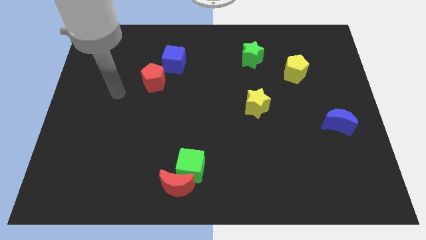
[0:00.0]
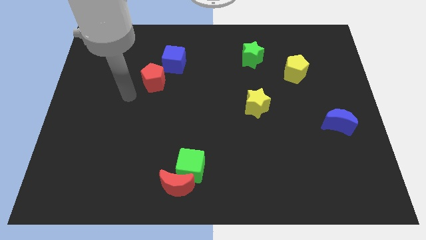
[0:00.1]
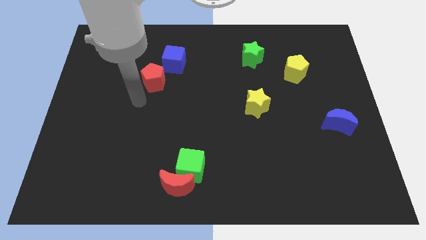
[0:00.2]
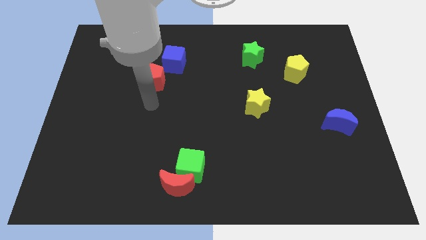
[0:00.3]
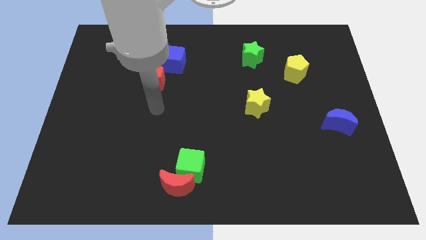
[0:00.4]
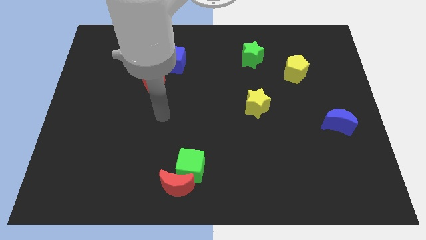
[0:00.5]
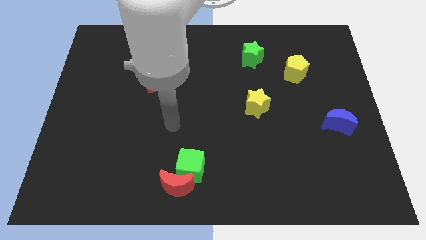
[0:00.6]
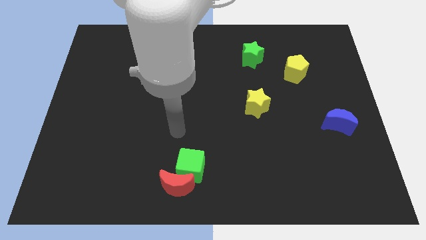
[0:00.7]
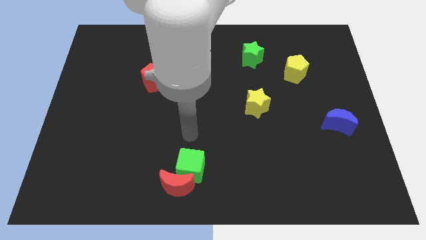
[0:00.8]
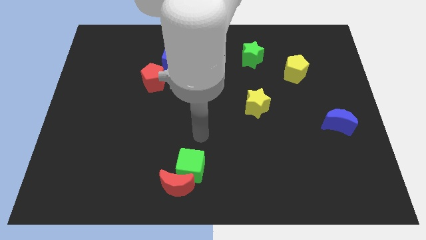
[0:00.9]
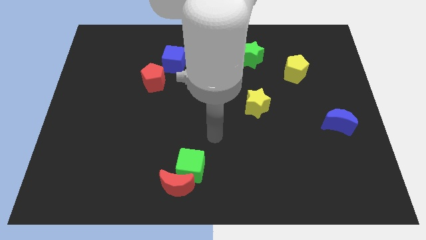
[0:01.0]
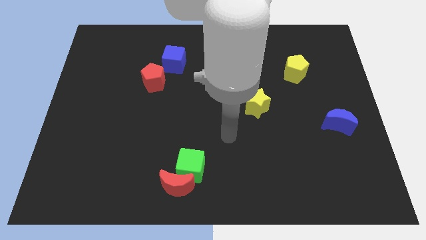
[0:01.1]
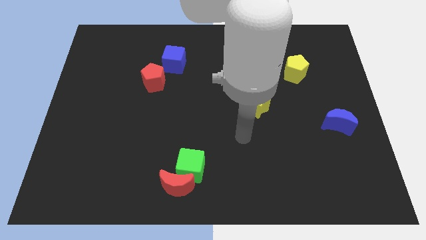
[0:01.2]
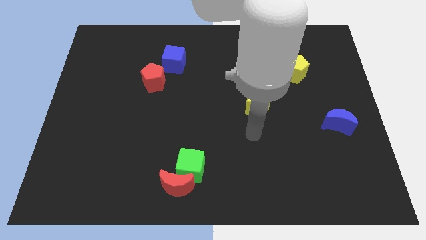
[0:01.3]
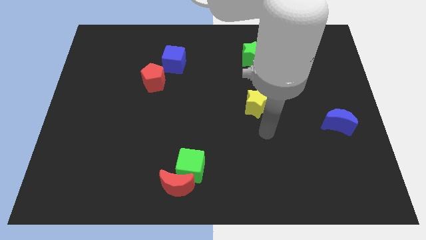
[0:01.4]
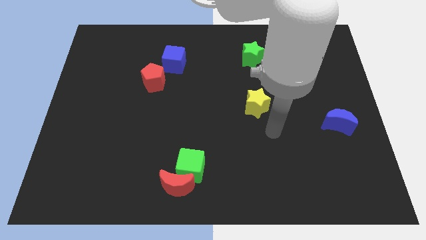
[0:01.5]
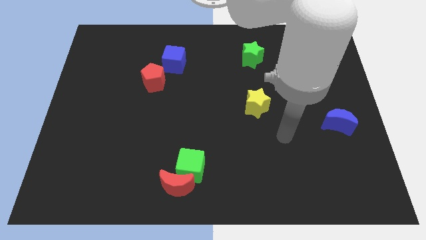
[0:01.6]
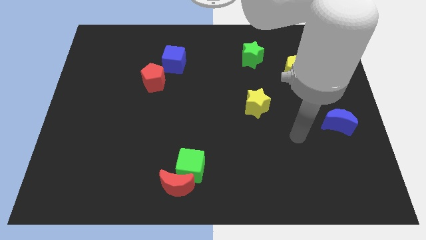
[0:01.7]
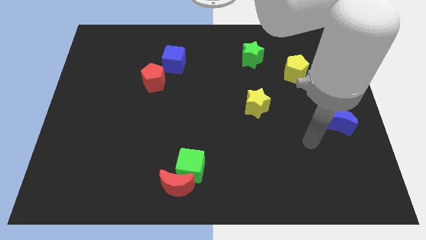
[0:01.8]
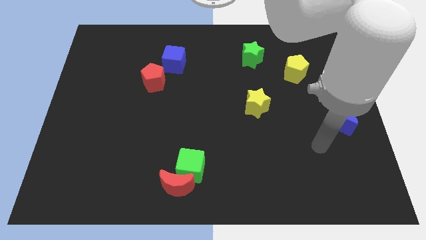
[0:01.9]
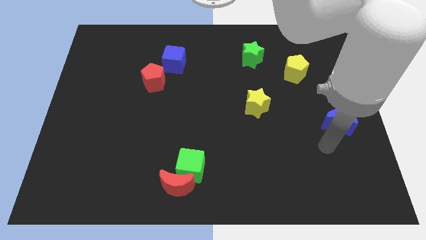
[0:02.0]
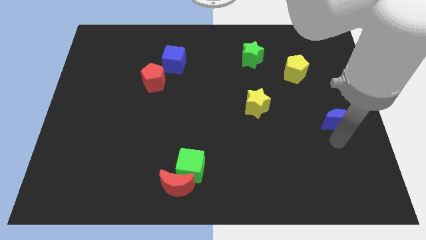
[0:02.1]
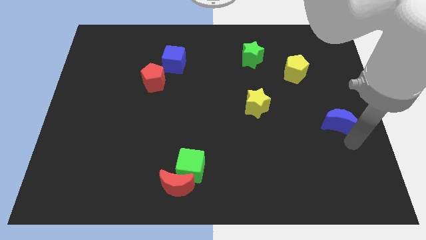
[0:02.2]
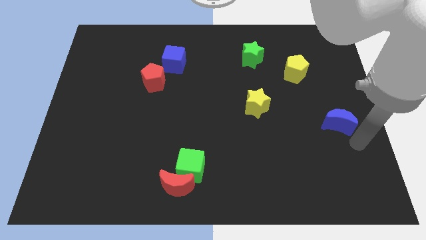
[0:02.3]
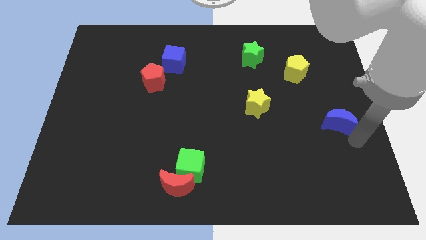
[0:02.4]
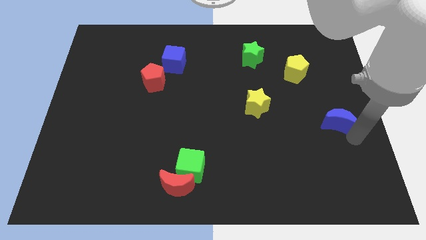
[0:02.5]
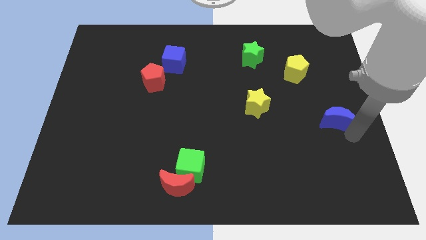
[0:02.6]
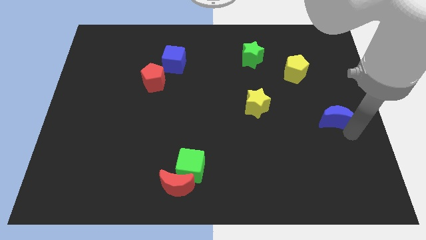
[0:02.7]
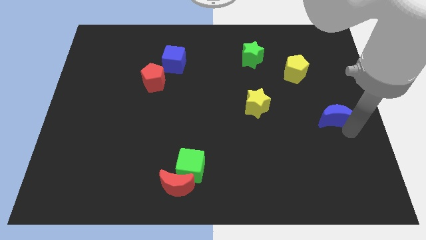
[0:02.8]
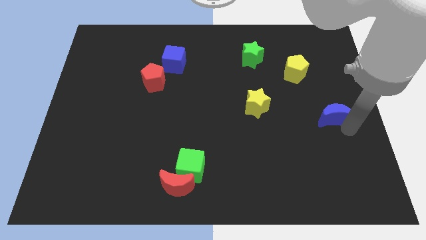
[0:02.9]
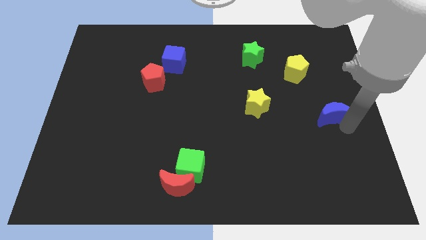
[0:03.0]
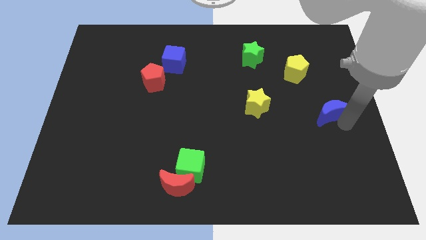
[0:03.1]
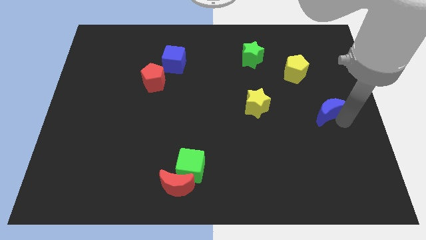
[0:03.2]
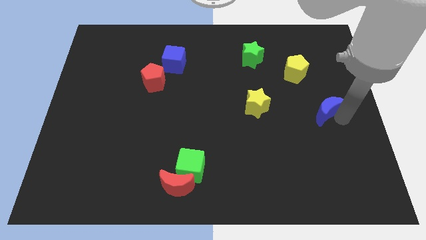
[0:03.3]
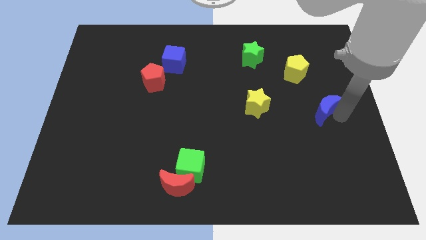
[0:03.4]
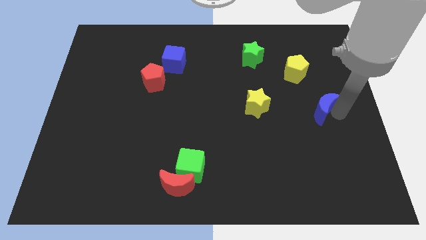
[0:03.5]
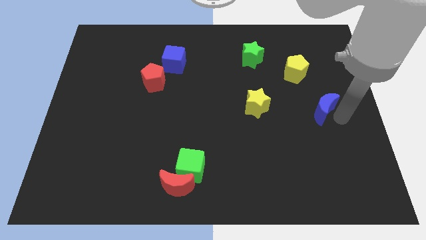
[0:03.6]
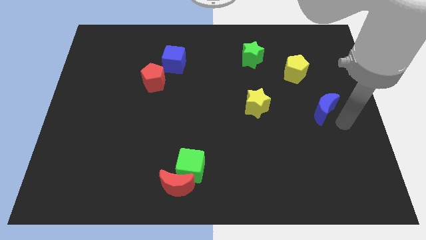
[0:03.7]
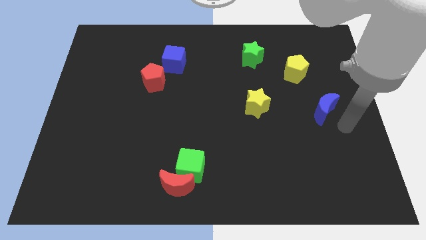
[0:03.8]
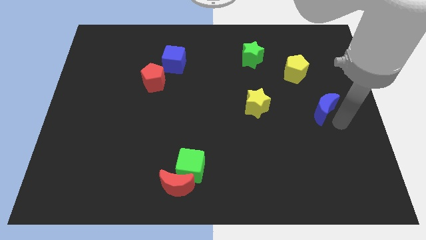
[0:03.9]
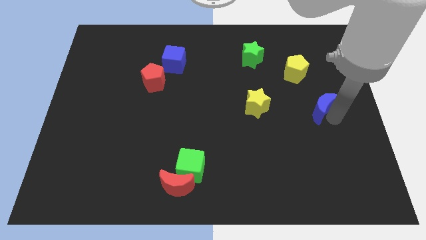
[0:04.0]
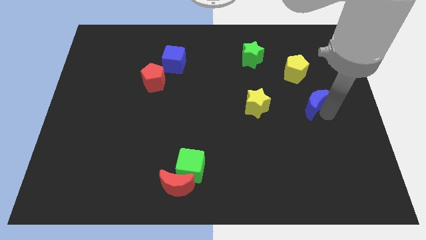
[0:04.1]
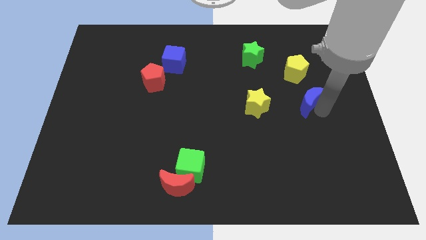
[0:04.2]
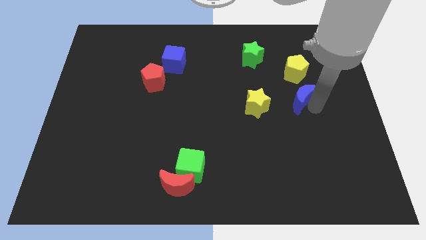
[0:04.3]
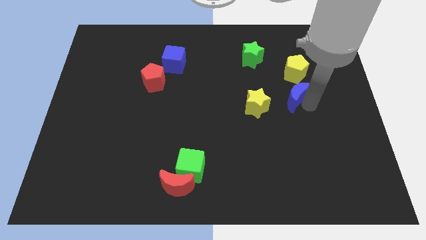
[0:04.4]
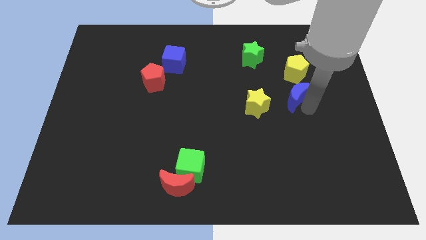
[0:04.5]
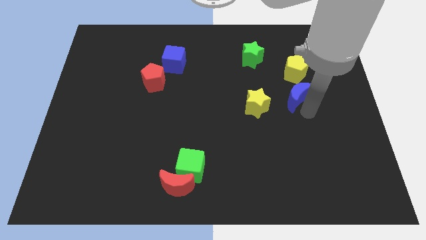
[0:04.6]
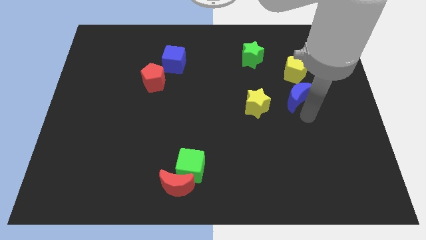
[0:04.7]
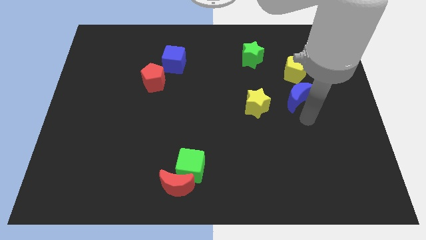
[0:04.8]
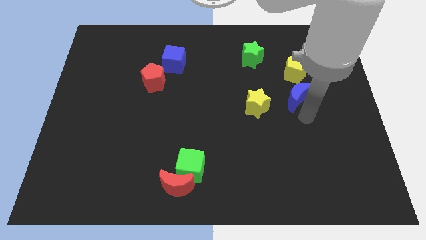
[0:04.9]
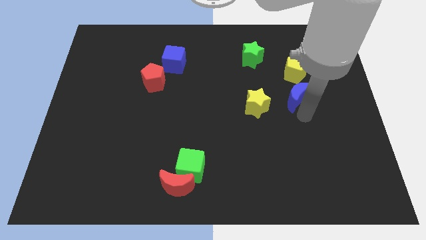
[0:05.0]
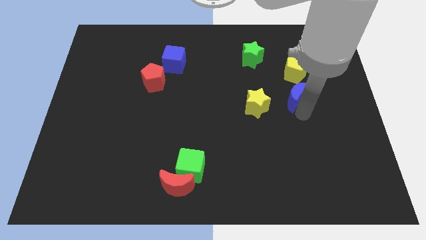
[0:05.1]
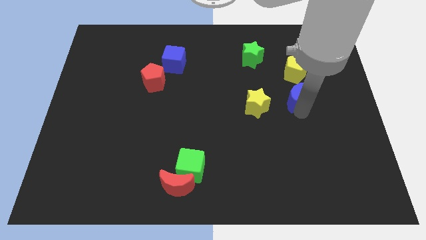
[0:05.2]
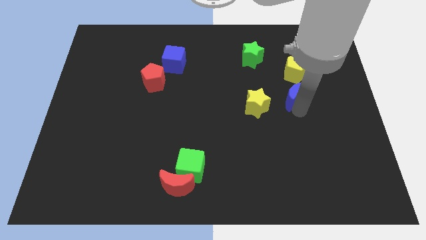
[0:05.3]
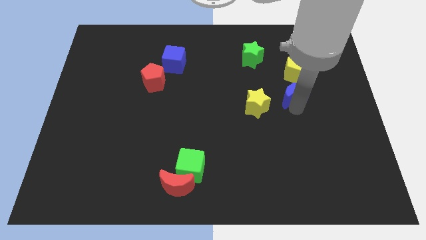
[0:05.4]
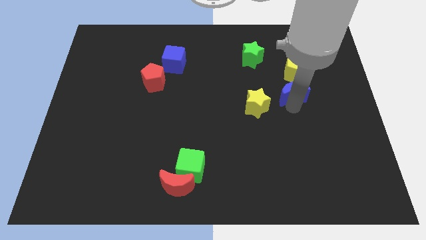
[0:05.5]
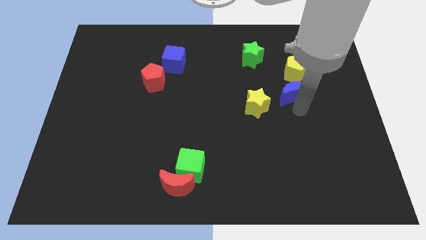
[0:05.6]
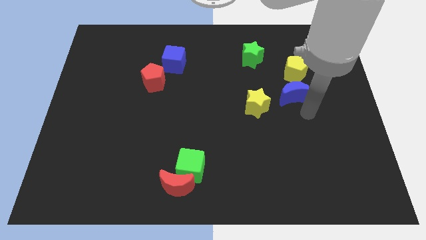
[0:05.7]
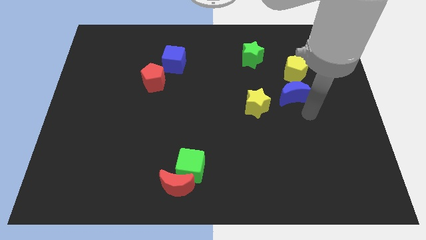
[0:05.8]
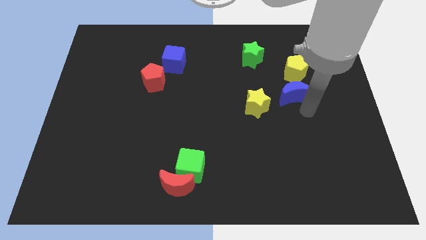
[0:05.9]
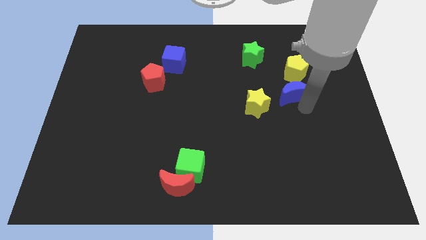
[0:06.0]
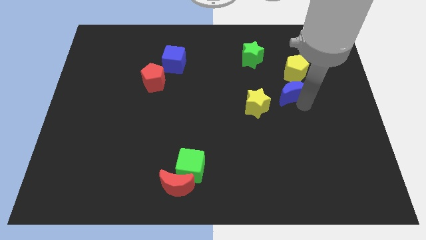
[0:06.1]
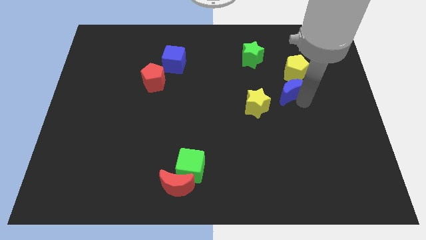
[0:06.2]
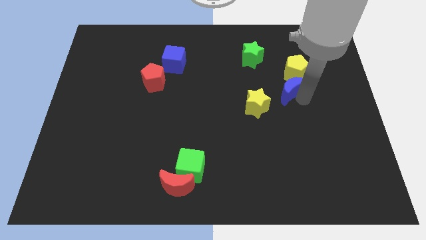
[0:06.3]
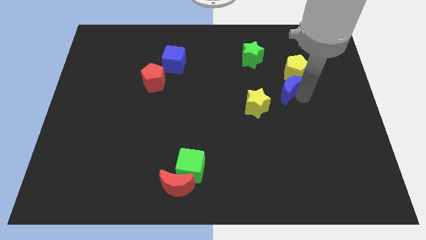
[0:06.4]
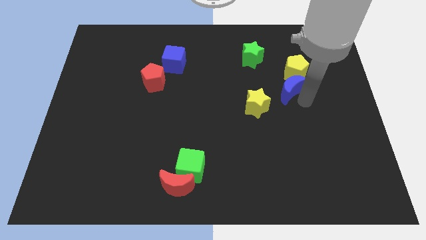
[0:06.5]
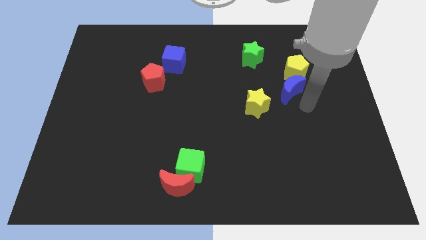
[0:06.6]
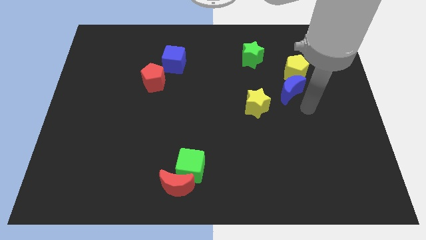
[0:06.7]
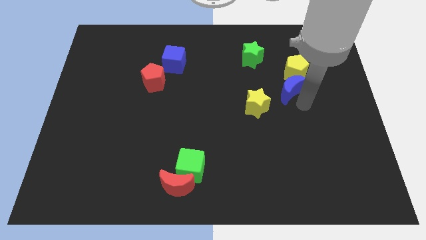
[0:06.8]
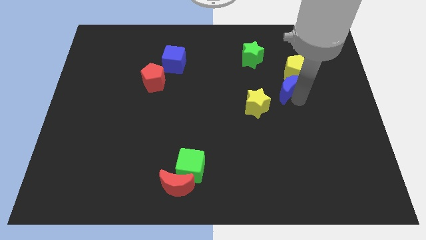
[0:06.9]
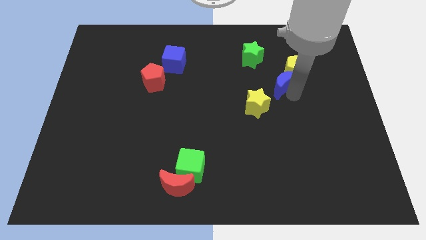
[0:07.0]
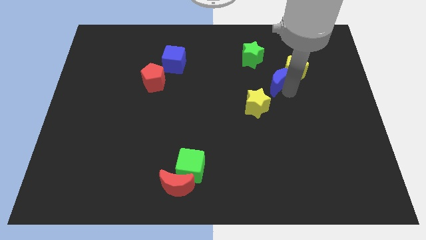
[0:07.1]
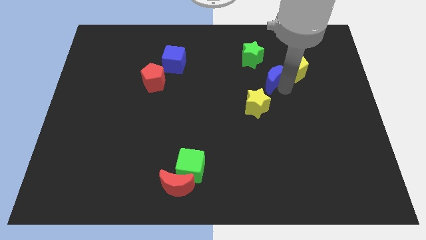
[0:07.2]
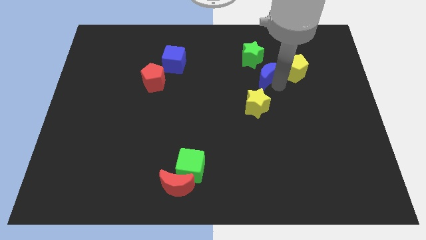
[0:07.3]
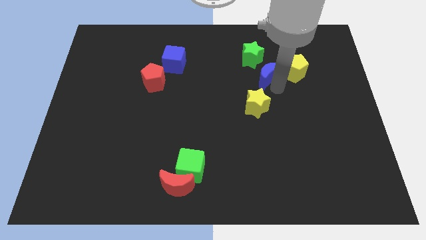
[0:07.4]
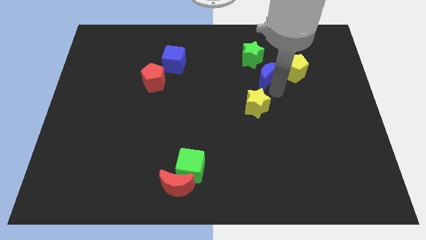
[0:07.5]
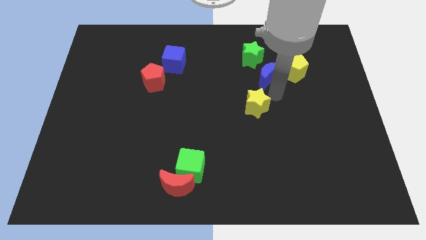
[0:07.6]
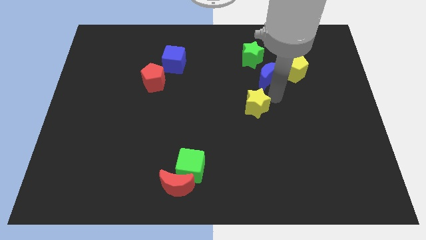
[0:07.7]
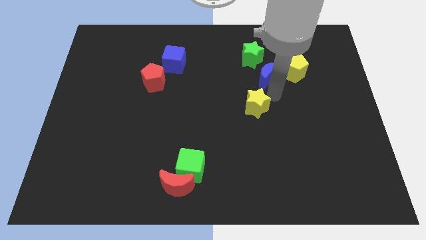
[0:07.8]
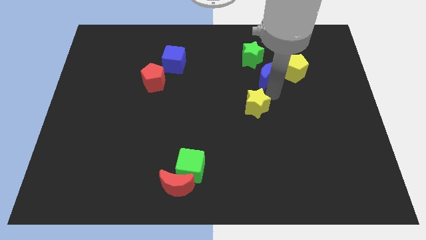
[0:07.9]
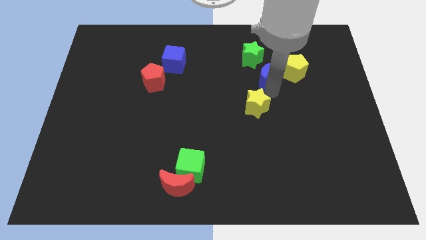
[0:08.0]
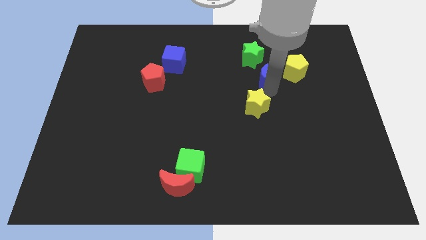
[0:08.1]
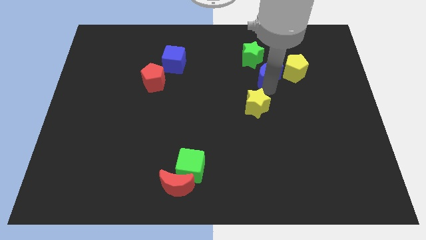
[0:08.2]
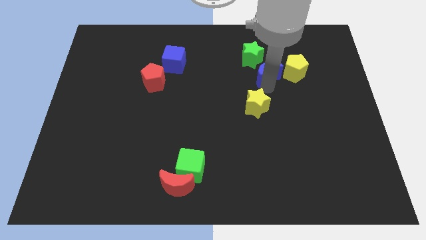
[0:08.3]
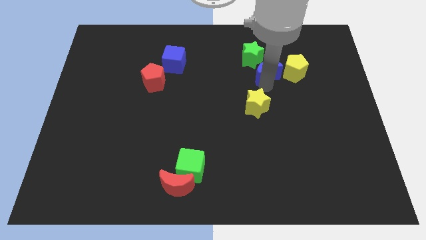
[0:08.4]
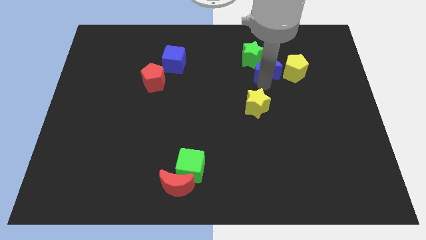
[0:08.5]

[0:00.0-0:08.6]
slide the blue moon next to the green star
